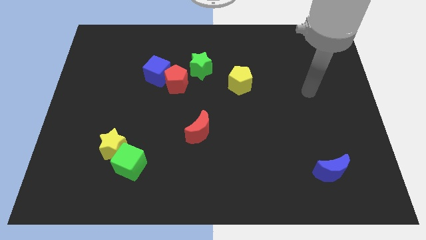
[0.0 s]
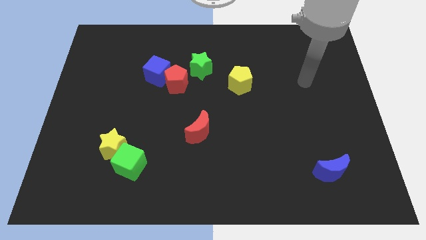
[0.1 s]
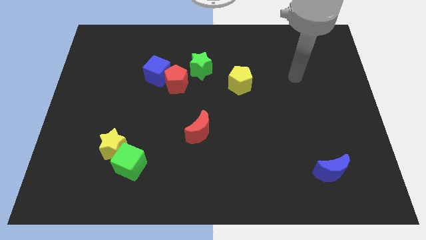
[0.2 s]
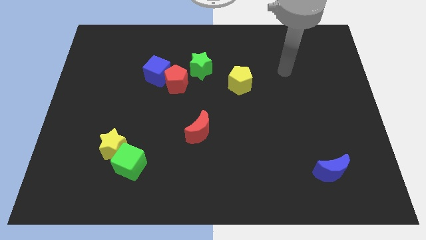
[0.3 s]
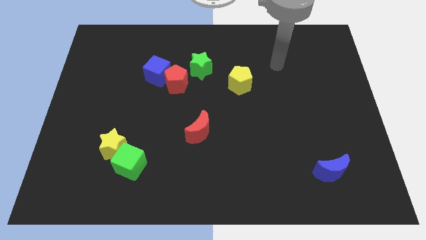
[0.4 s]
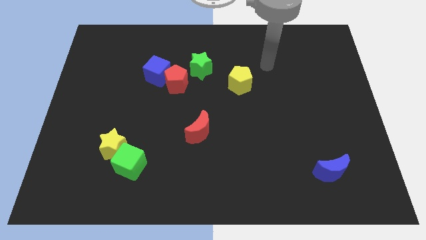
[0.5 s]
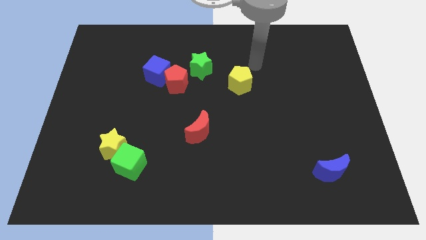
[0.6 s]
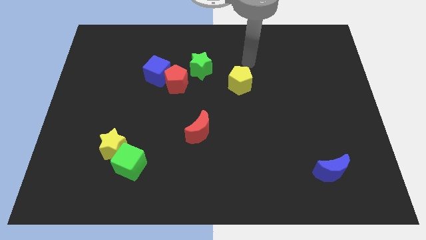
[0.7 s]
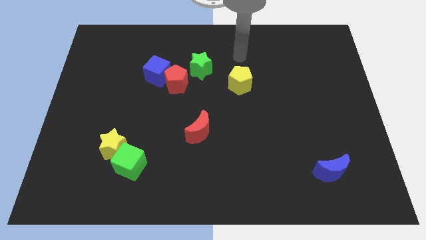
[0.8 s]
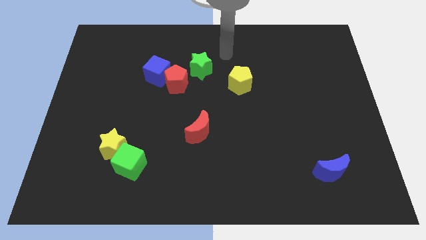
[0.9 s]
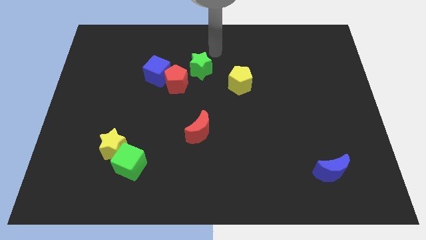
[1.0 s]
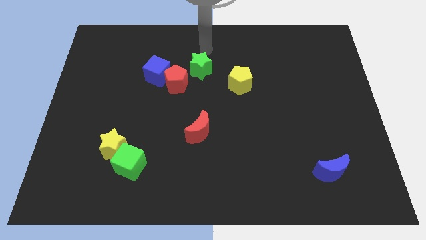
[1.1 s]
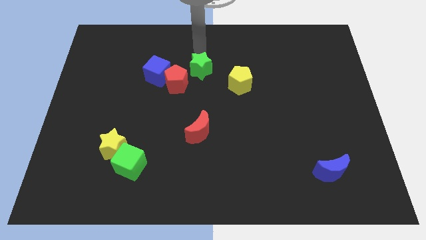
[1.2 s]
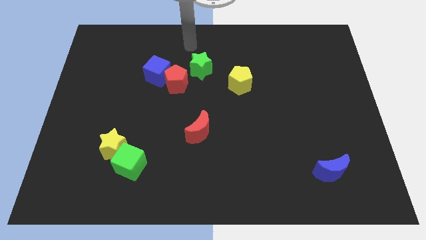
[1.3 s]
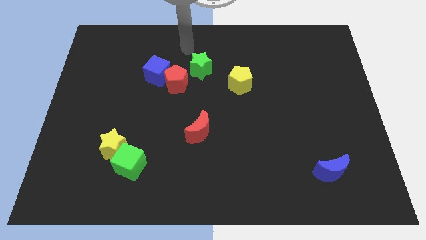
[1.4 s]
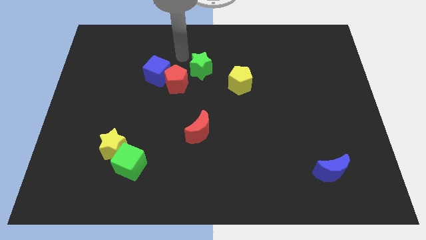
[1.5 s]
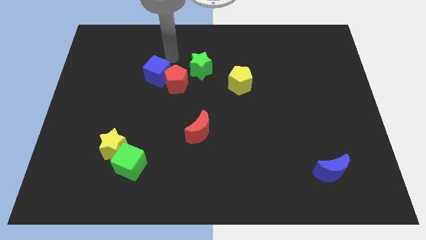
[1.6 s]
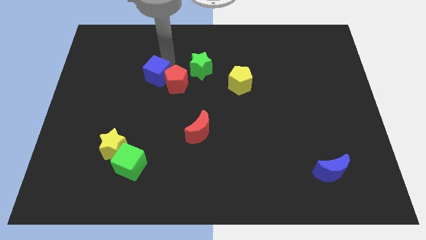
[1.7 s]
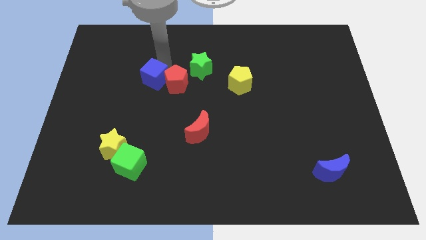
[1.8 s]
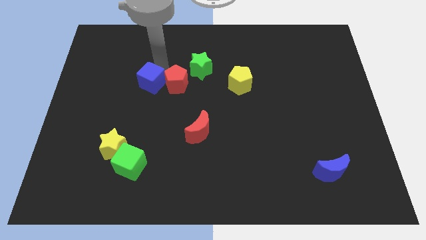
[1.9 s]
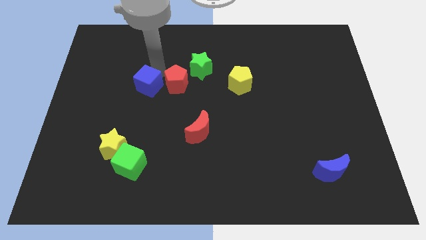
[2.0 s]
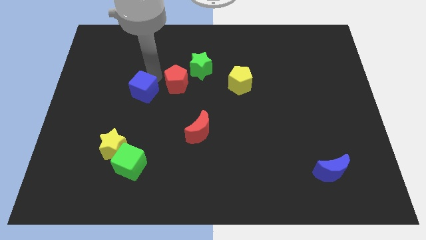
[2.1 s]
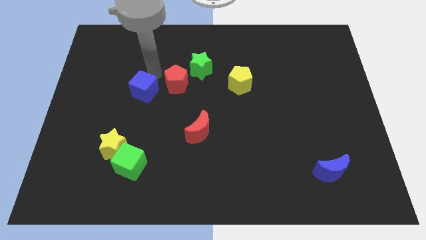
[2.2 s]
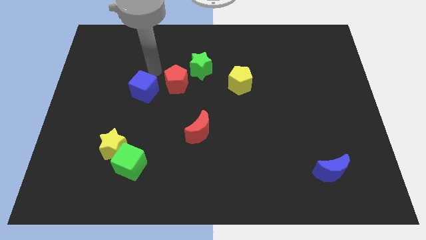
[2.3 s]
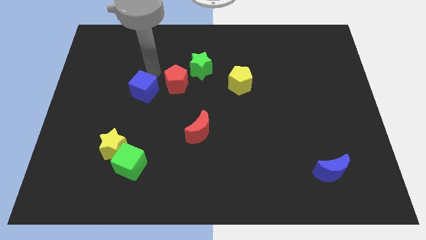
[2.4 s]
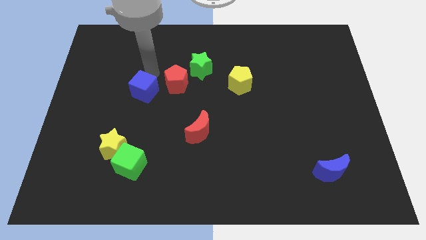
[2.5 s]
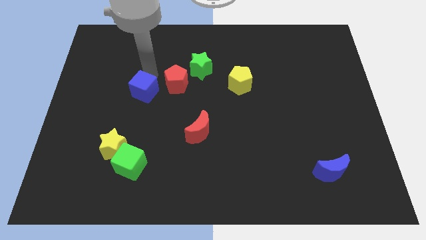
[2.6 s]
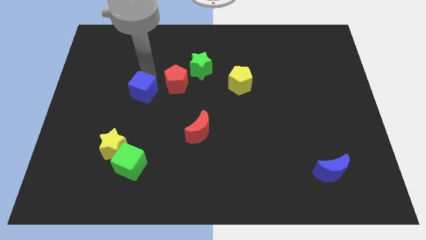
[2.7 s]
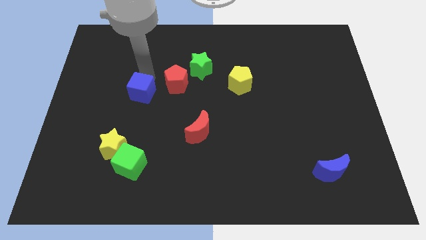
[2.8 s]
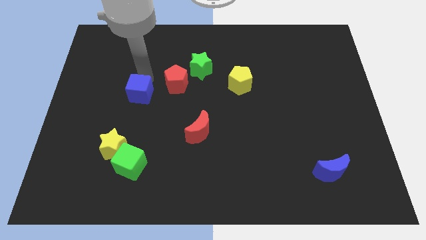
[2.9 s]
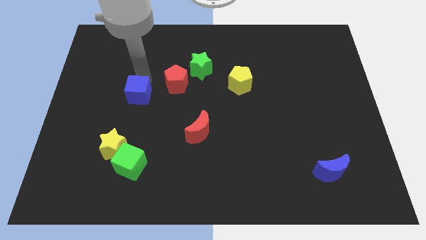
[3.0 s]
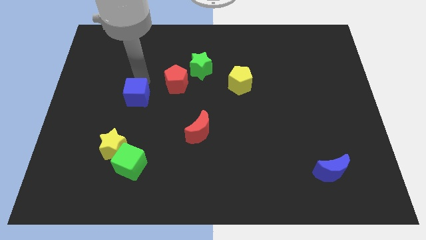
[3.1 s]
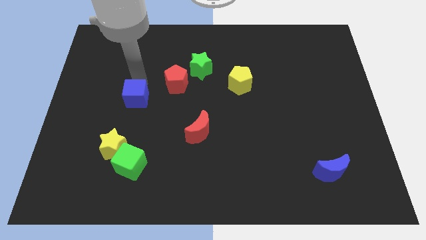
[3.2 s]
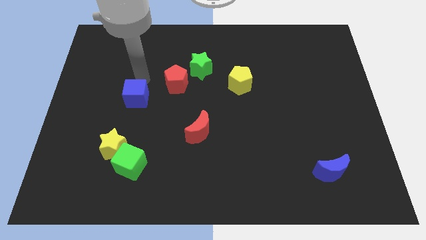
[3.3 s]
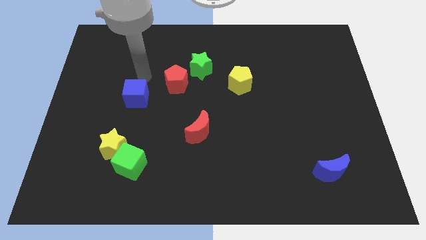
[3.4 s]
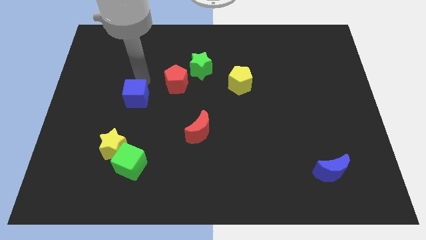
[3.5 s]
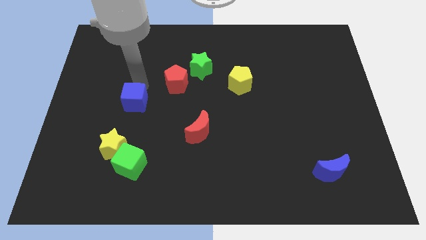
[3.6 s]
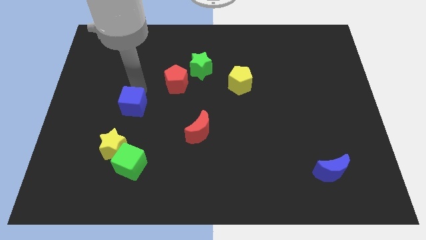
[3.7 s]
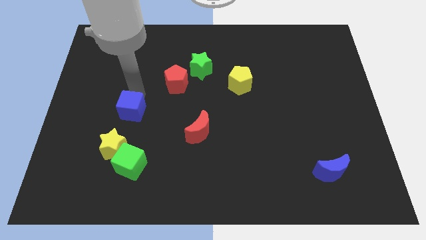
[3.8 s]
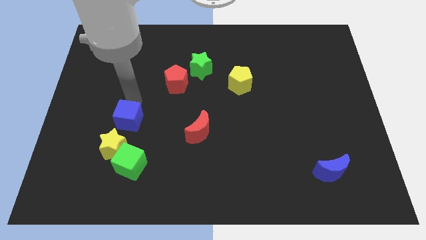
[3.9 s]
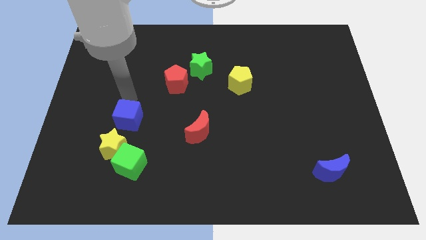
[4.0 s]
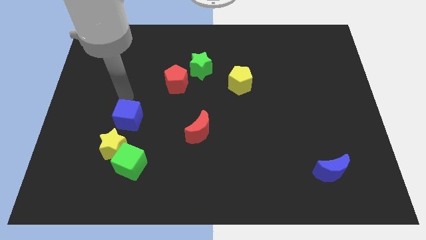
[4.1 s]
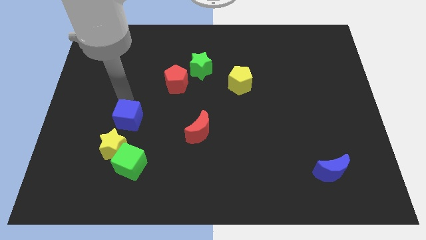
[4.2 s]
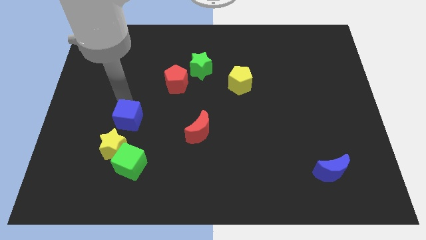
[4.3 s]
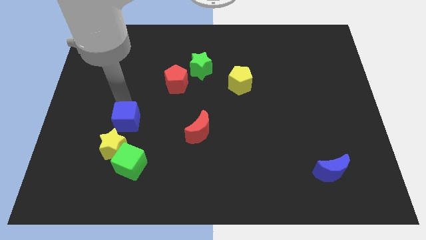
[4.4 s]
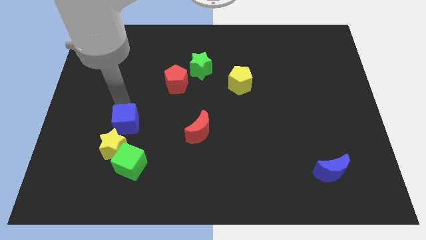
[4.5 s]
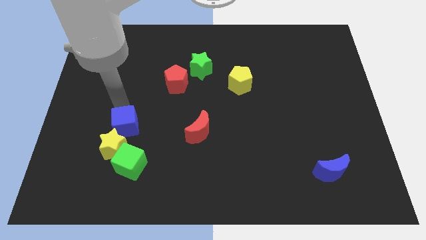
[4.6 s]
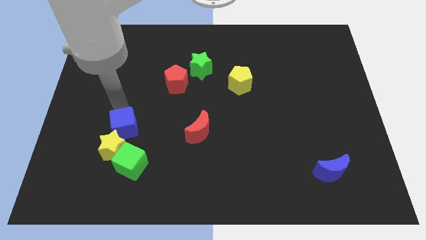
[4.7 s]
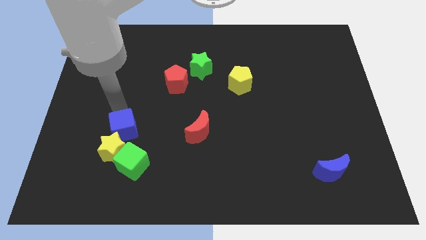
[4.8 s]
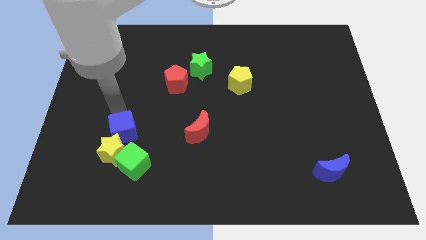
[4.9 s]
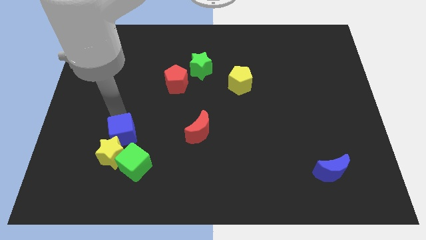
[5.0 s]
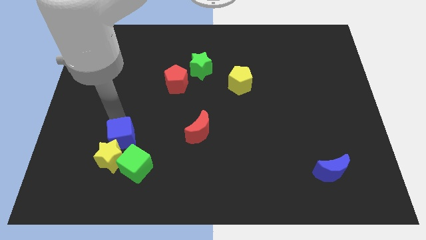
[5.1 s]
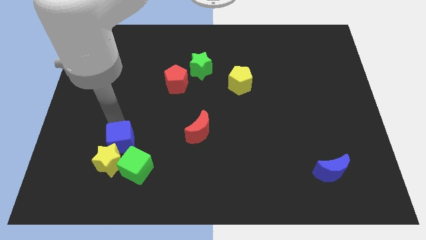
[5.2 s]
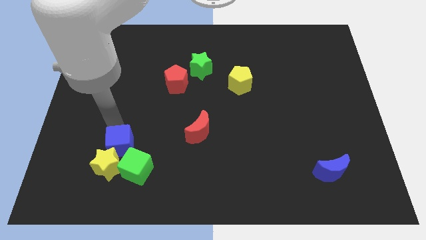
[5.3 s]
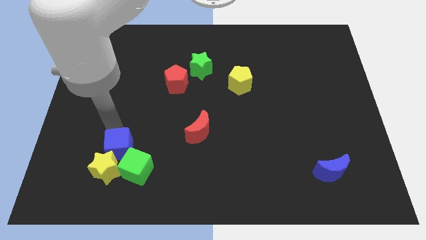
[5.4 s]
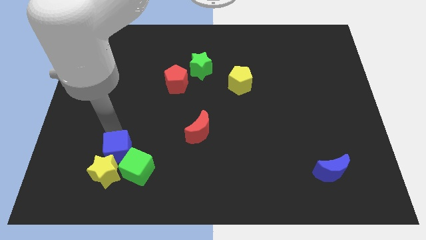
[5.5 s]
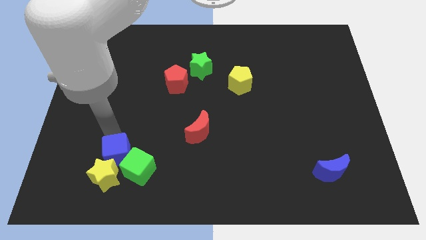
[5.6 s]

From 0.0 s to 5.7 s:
move the blue cube next to the green cube

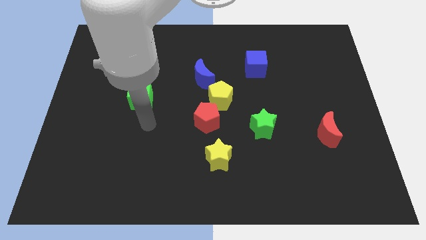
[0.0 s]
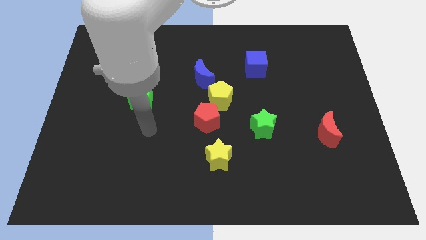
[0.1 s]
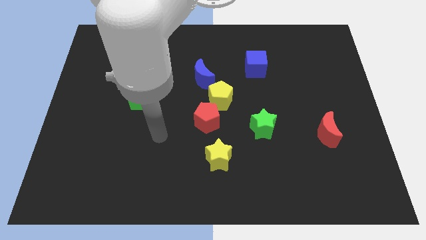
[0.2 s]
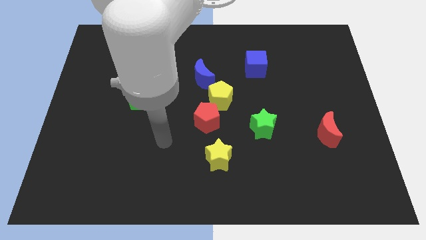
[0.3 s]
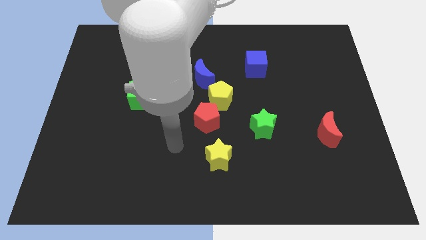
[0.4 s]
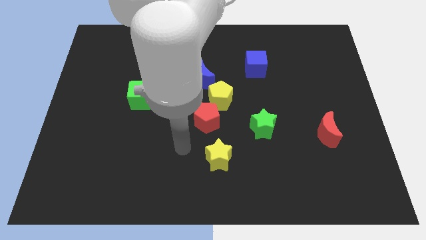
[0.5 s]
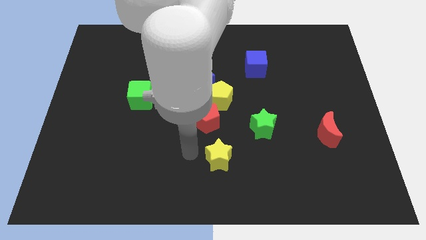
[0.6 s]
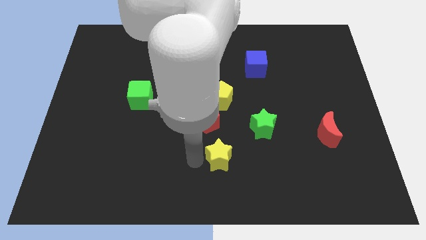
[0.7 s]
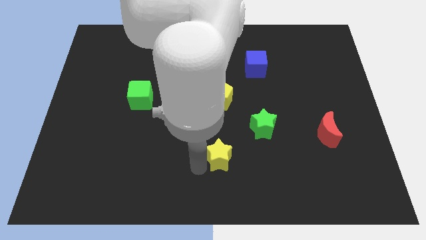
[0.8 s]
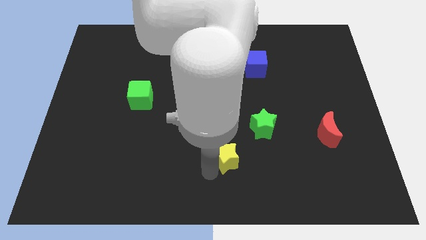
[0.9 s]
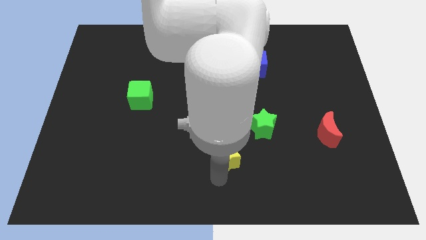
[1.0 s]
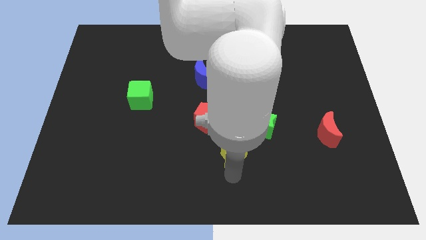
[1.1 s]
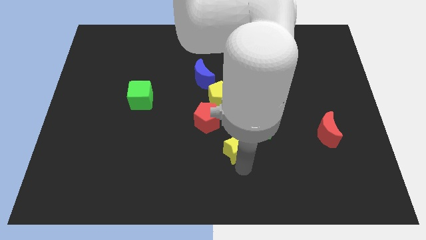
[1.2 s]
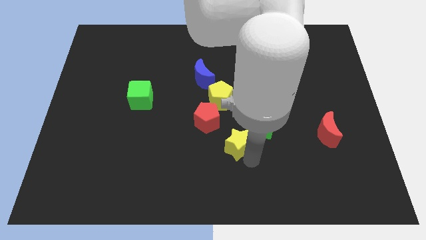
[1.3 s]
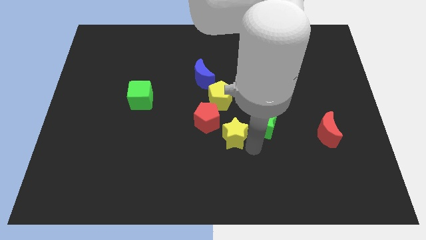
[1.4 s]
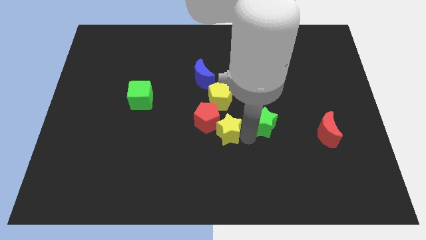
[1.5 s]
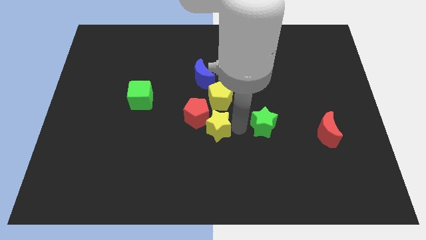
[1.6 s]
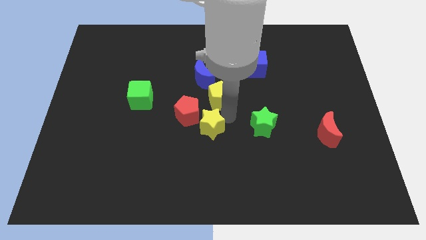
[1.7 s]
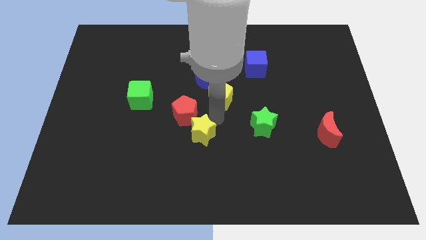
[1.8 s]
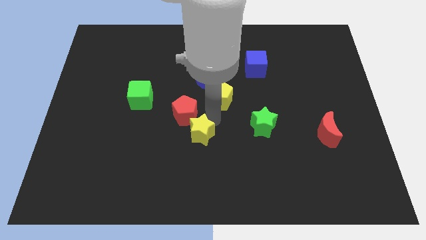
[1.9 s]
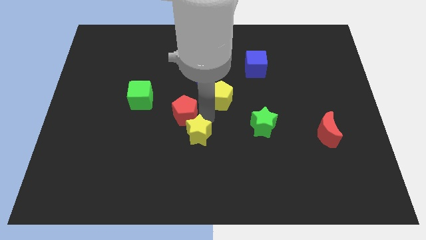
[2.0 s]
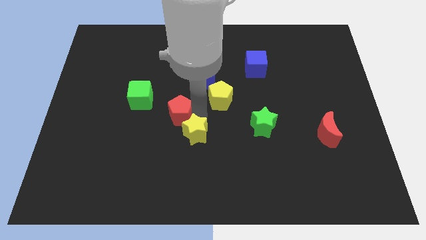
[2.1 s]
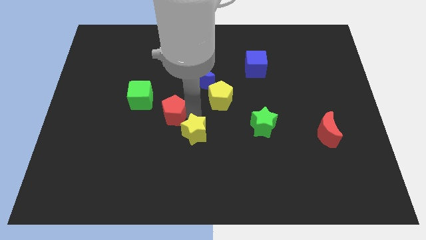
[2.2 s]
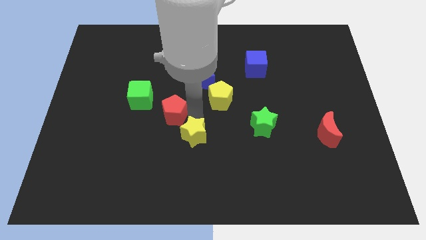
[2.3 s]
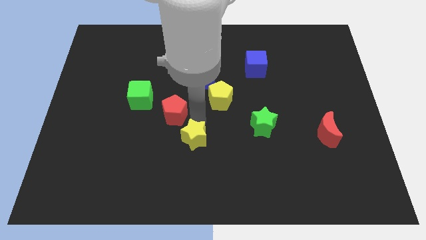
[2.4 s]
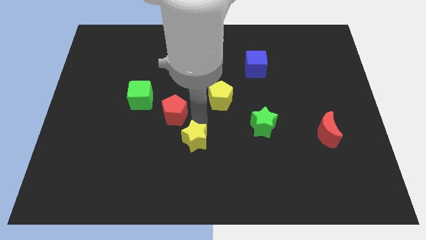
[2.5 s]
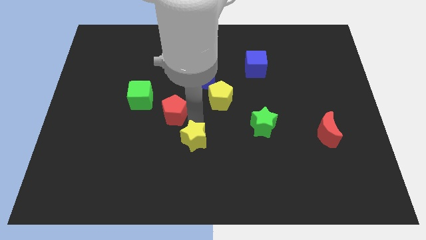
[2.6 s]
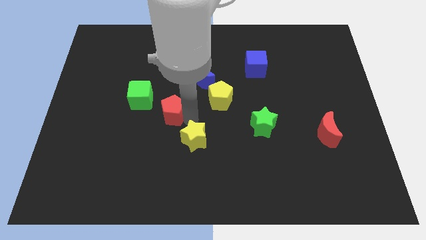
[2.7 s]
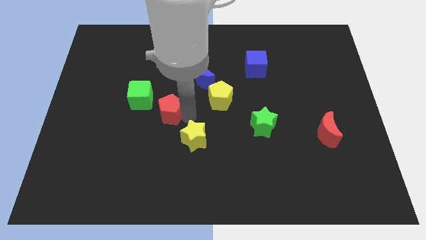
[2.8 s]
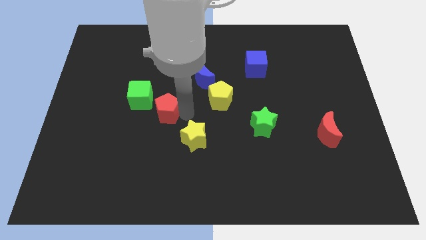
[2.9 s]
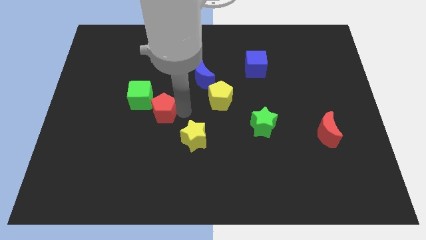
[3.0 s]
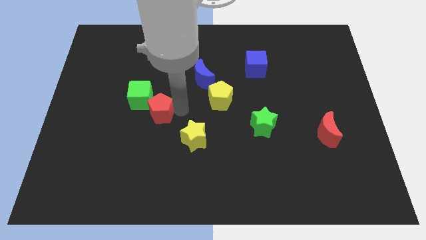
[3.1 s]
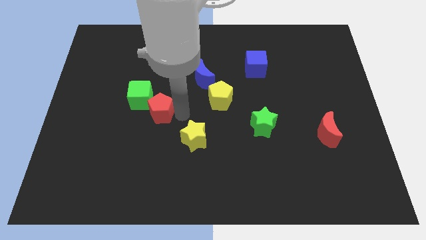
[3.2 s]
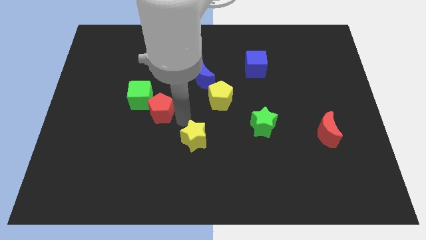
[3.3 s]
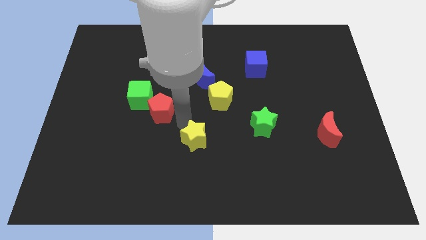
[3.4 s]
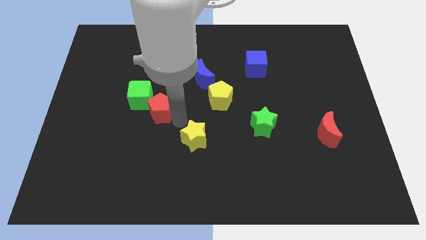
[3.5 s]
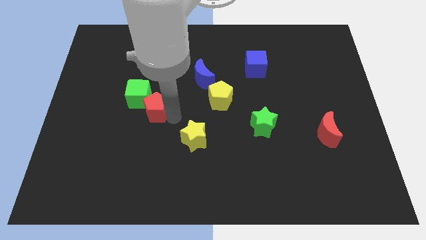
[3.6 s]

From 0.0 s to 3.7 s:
move the red pentagon close to the green cube
